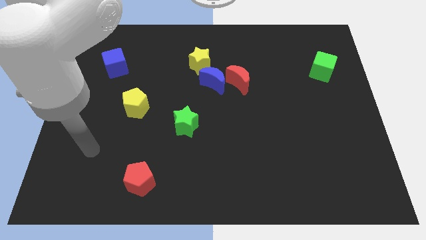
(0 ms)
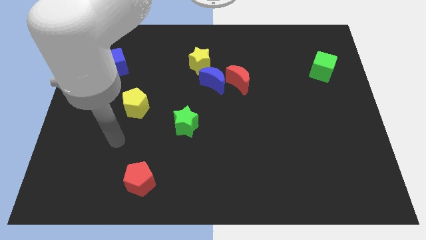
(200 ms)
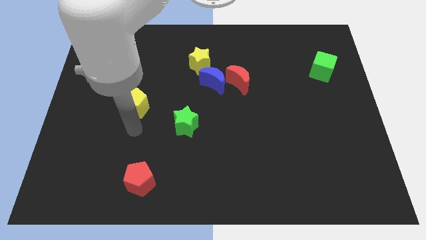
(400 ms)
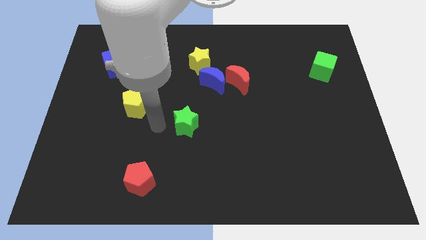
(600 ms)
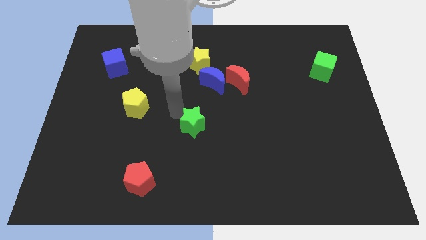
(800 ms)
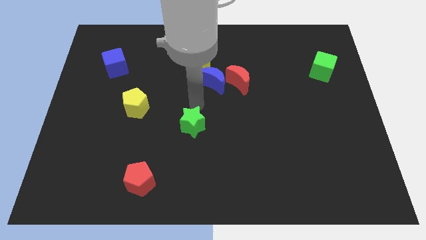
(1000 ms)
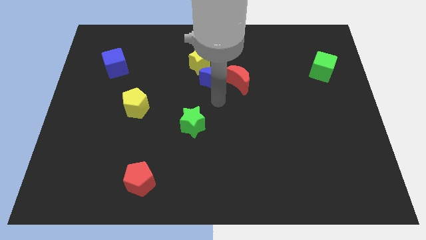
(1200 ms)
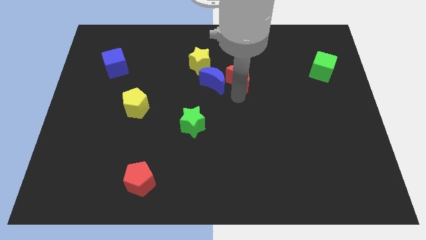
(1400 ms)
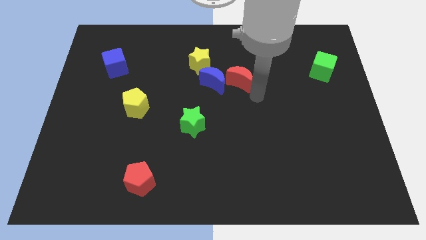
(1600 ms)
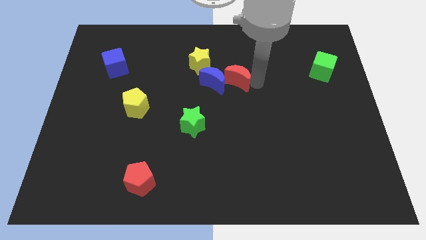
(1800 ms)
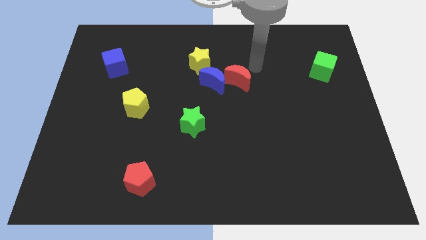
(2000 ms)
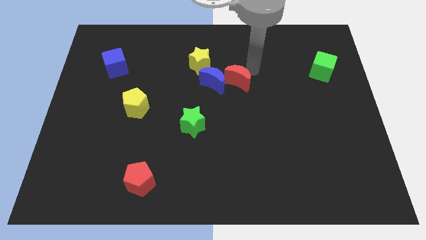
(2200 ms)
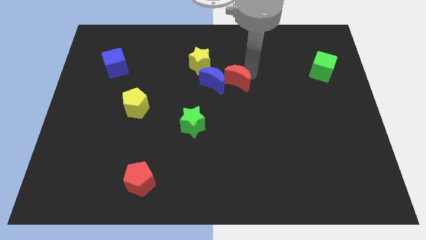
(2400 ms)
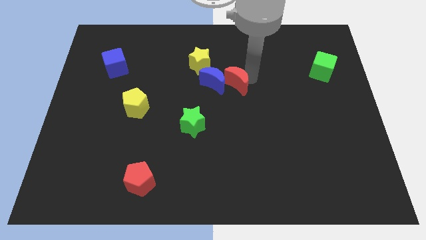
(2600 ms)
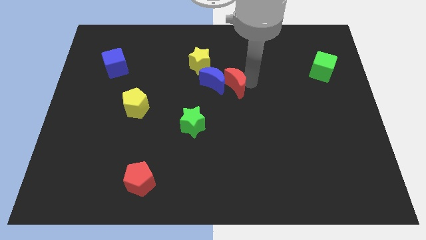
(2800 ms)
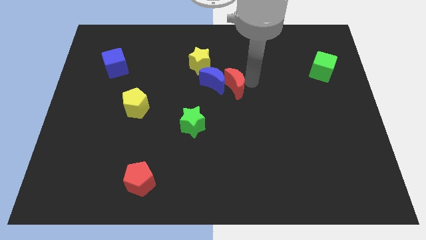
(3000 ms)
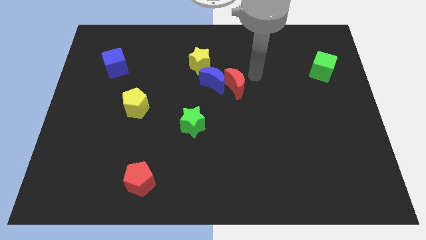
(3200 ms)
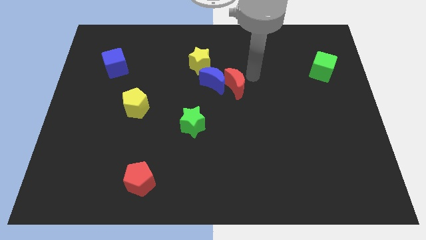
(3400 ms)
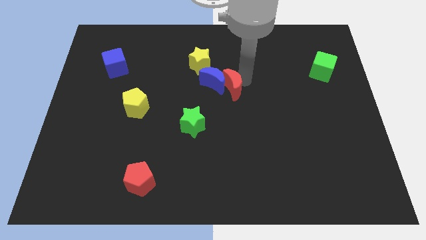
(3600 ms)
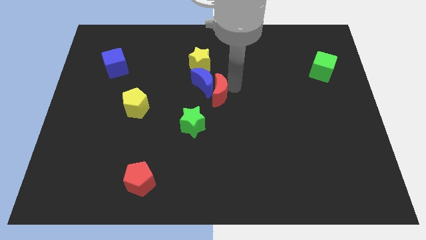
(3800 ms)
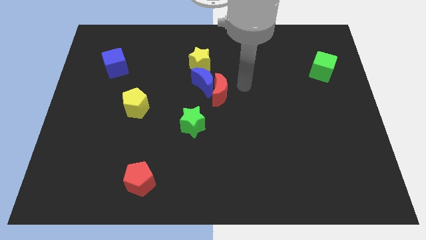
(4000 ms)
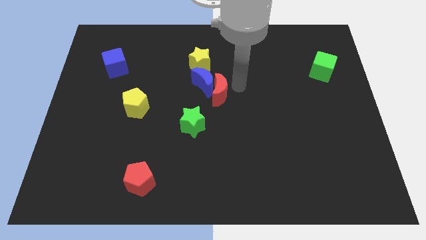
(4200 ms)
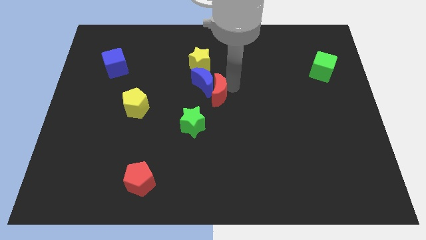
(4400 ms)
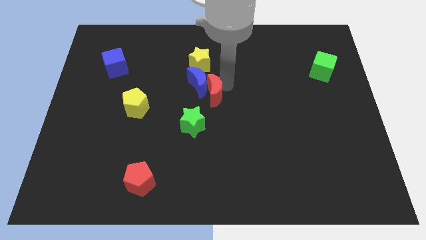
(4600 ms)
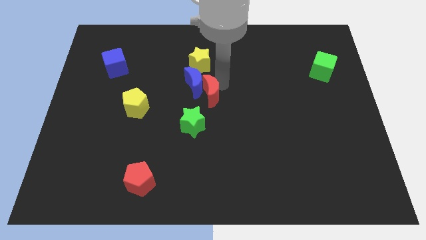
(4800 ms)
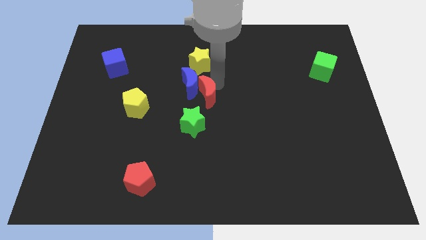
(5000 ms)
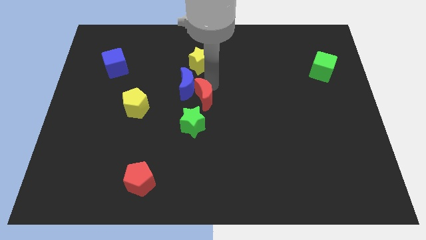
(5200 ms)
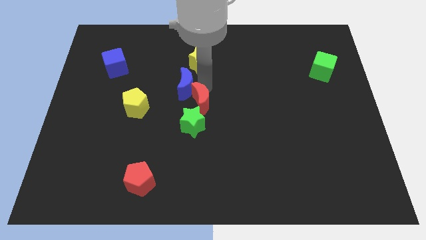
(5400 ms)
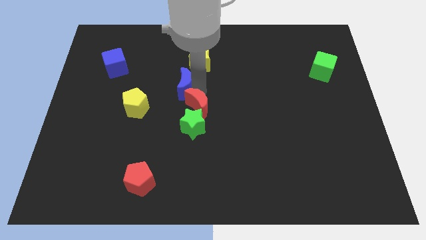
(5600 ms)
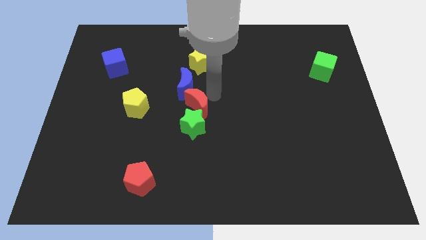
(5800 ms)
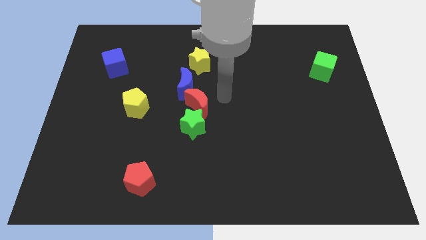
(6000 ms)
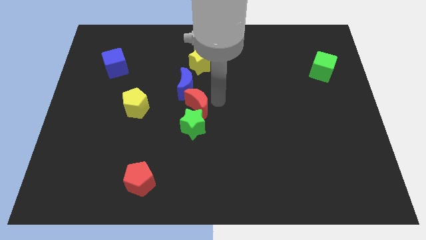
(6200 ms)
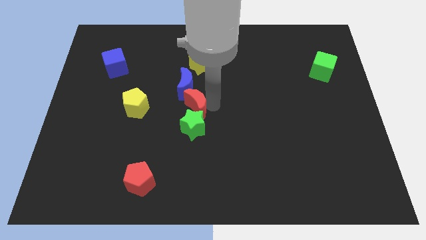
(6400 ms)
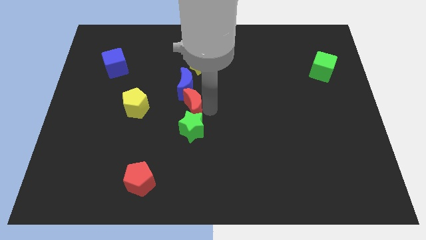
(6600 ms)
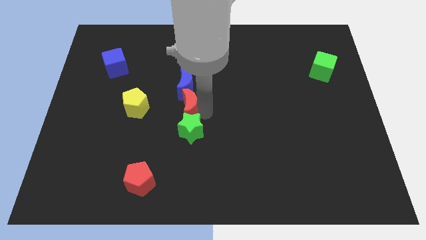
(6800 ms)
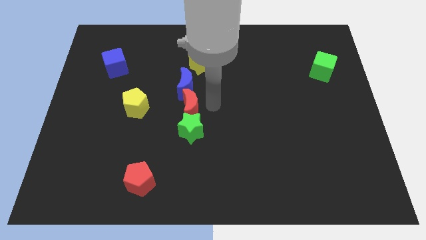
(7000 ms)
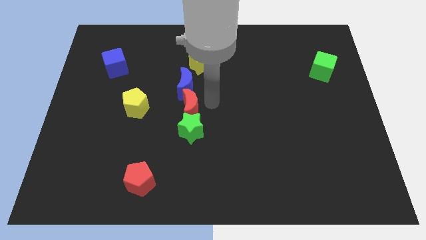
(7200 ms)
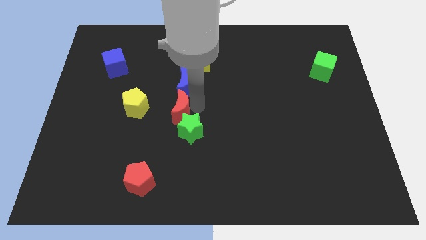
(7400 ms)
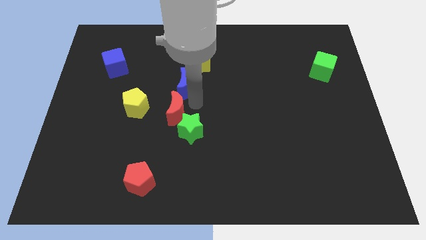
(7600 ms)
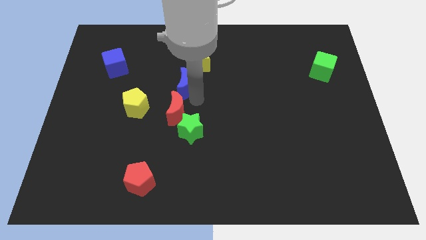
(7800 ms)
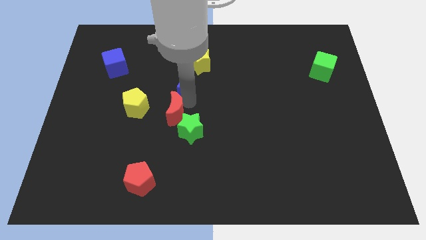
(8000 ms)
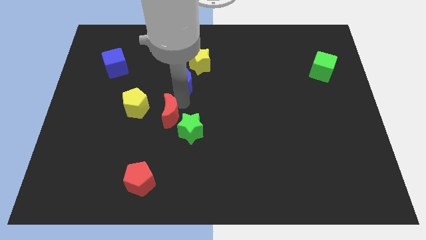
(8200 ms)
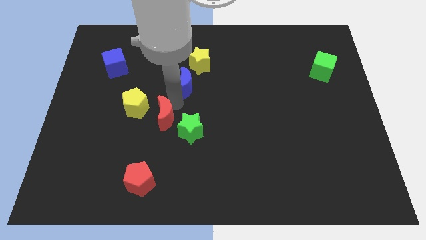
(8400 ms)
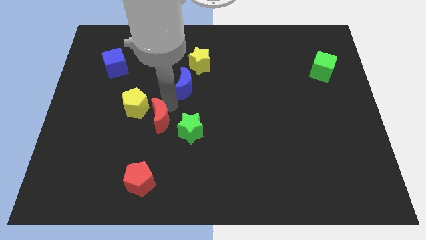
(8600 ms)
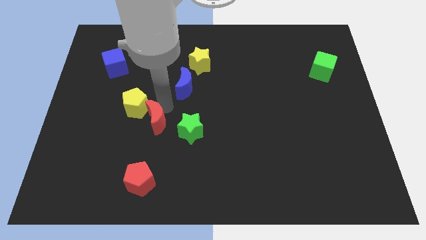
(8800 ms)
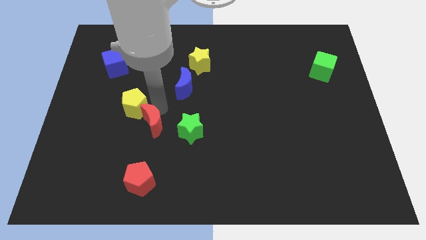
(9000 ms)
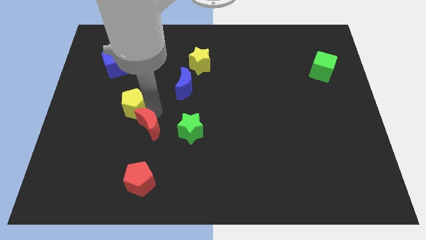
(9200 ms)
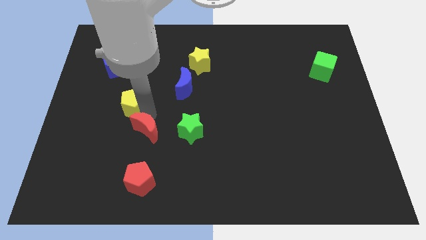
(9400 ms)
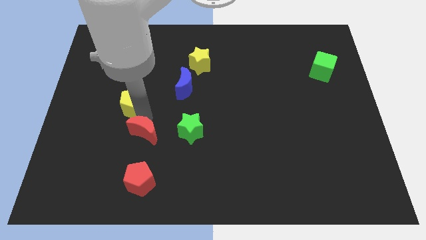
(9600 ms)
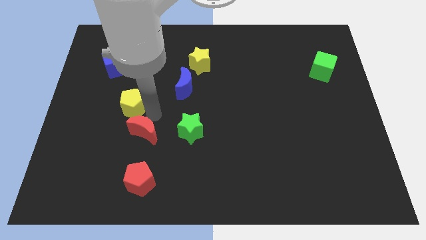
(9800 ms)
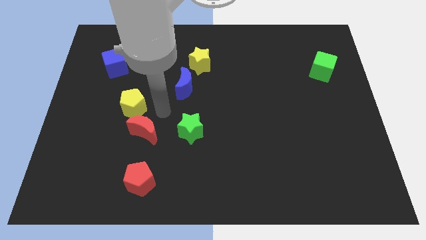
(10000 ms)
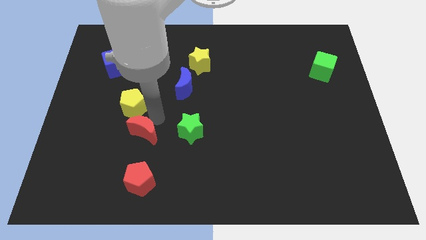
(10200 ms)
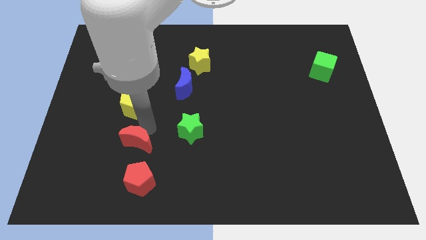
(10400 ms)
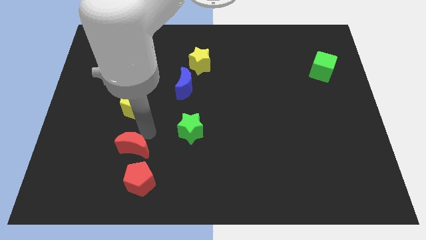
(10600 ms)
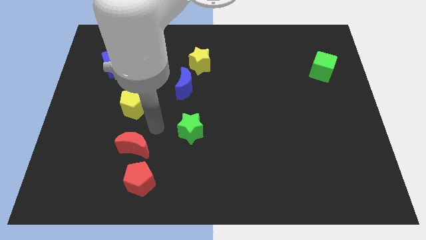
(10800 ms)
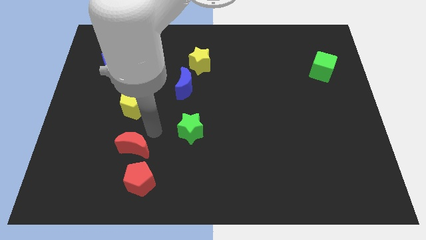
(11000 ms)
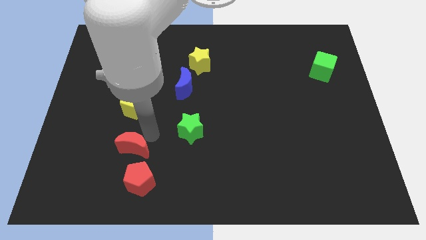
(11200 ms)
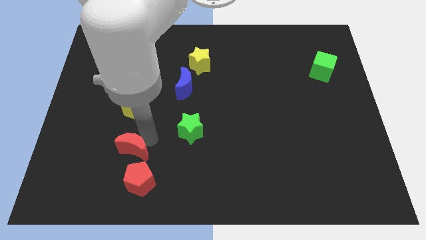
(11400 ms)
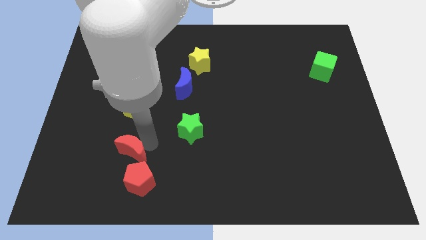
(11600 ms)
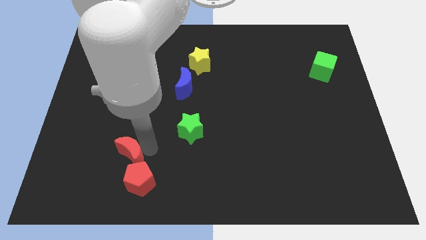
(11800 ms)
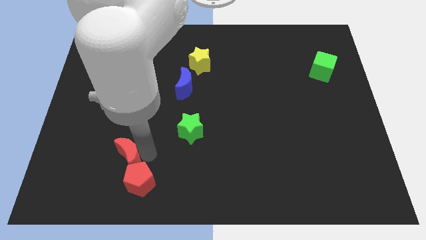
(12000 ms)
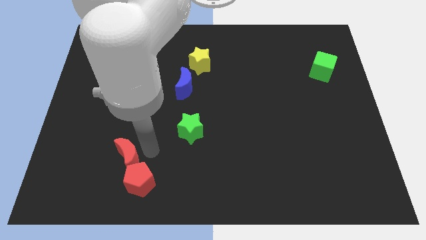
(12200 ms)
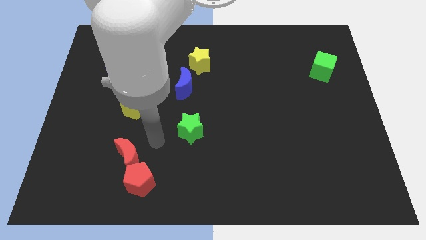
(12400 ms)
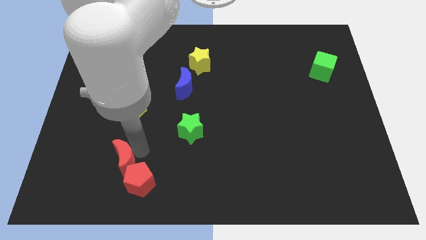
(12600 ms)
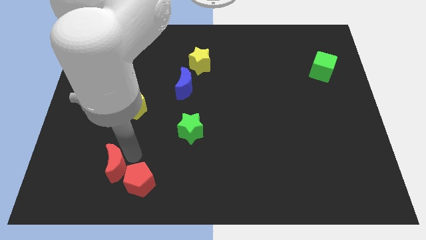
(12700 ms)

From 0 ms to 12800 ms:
move the red moon just left of the red pentagon

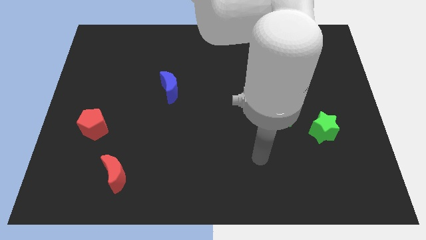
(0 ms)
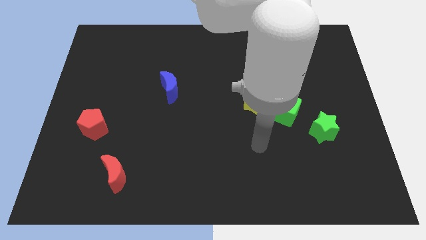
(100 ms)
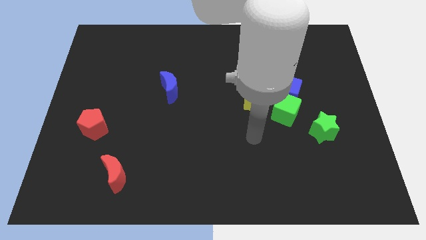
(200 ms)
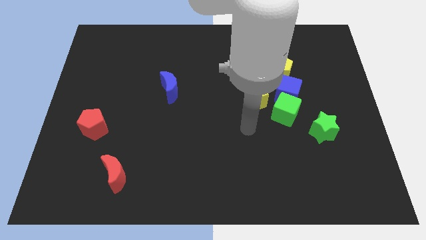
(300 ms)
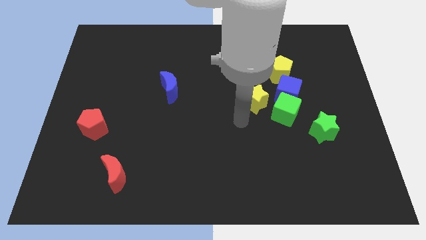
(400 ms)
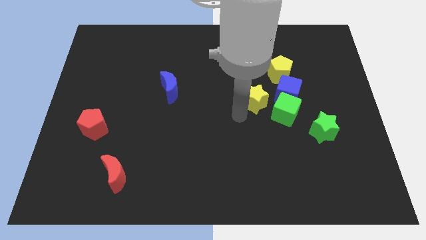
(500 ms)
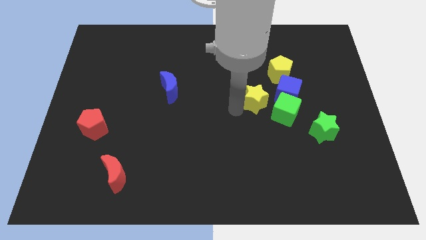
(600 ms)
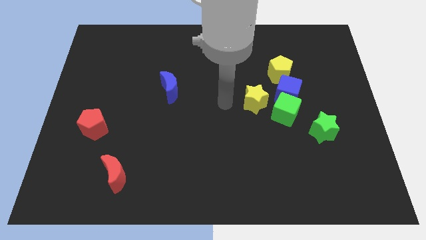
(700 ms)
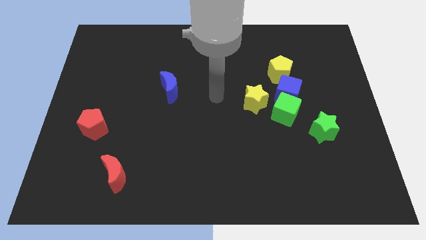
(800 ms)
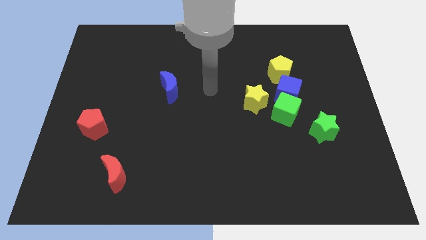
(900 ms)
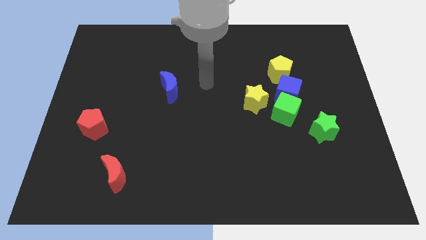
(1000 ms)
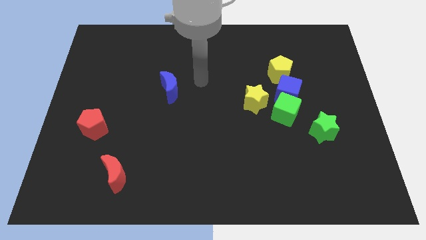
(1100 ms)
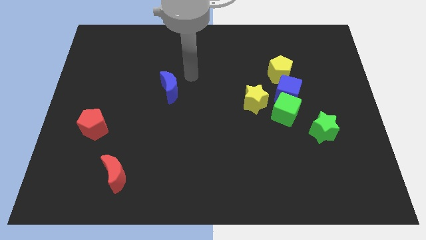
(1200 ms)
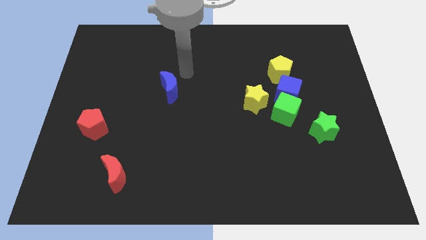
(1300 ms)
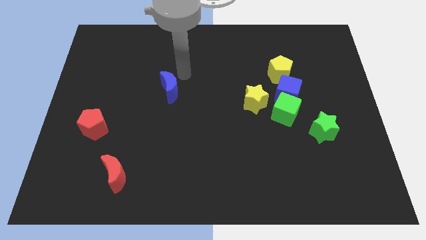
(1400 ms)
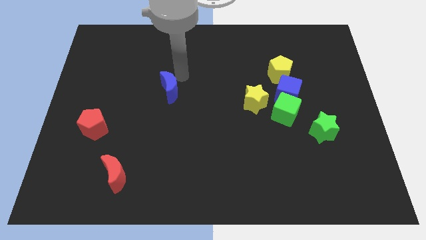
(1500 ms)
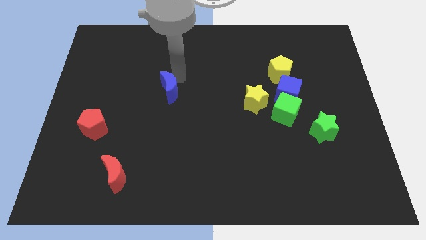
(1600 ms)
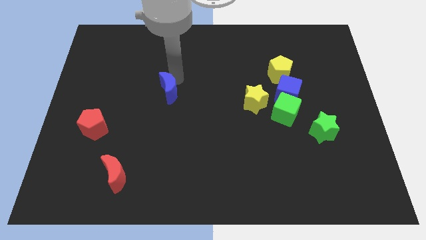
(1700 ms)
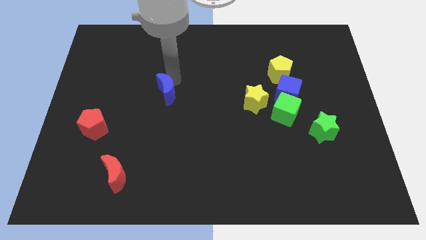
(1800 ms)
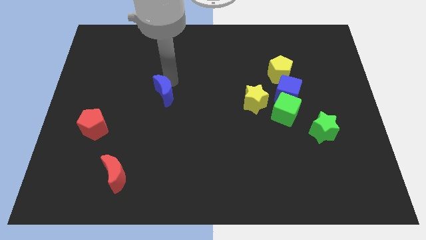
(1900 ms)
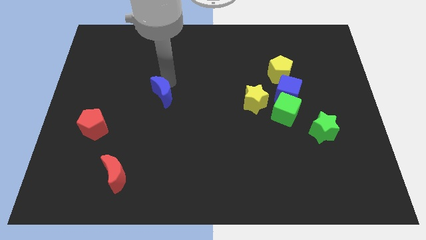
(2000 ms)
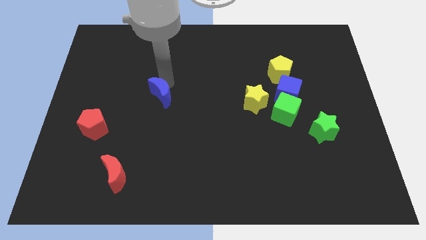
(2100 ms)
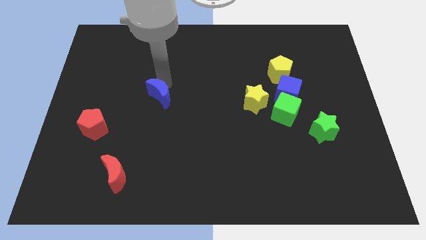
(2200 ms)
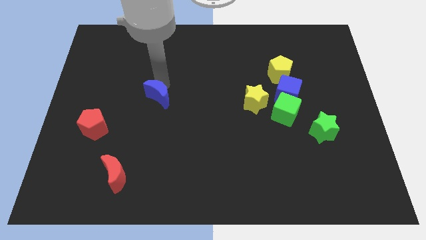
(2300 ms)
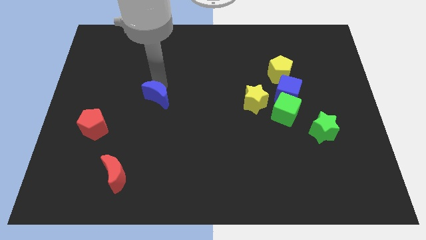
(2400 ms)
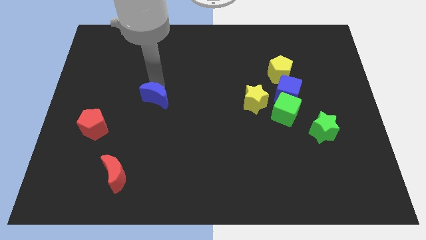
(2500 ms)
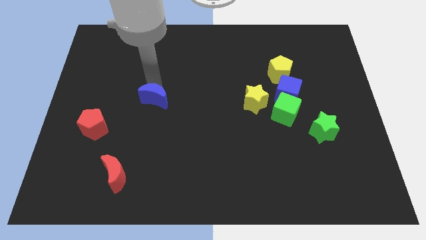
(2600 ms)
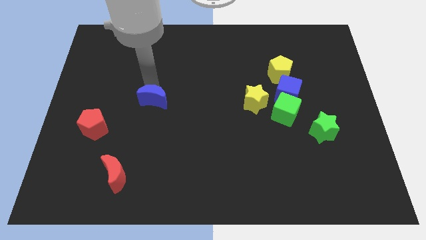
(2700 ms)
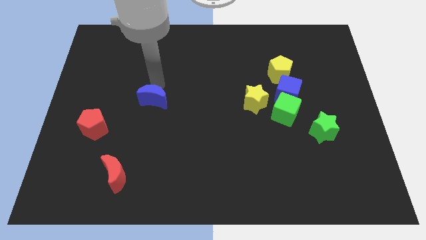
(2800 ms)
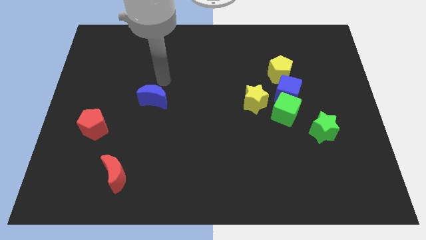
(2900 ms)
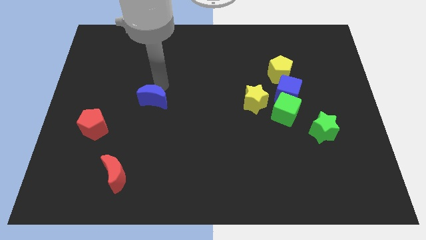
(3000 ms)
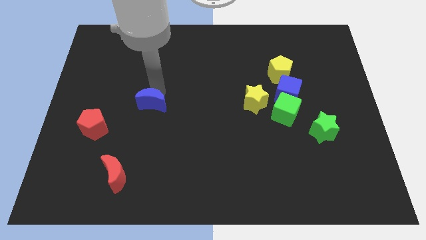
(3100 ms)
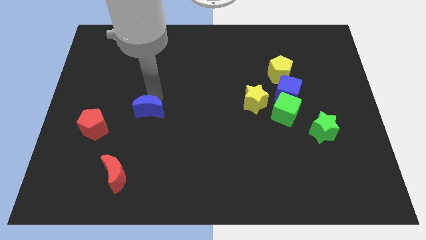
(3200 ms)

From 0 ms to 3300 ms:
slide the blue moon right of the red pentagon
